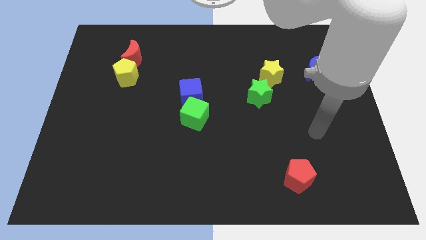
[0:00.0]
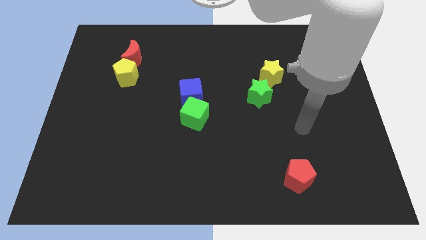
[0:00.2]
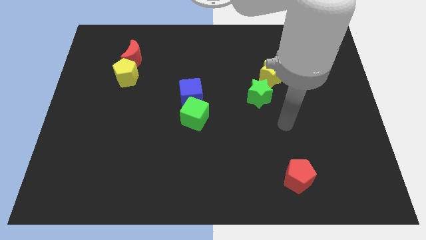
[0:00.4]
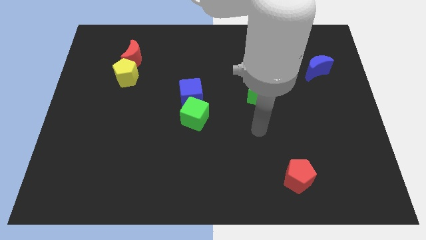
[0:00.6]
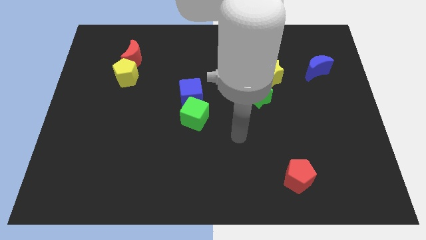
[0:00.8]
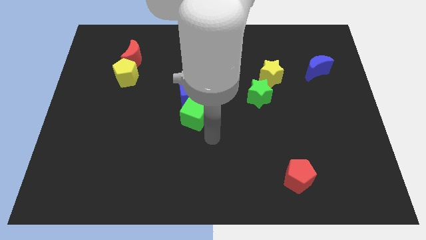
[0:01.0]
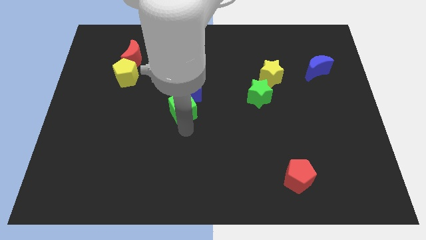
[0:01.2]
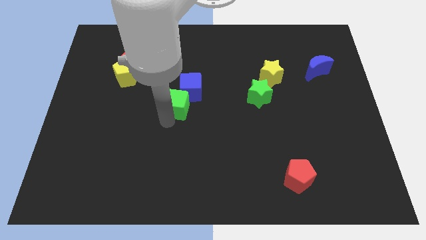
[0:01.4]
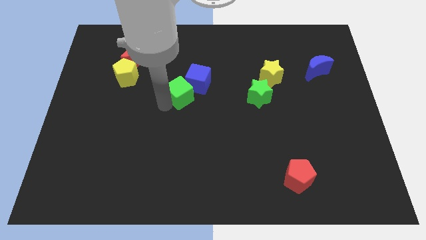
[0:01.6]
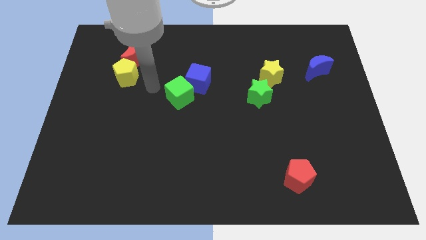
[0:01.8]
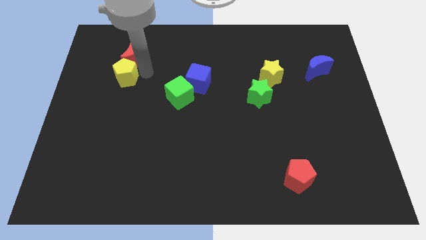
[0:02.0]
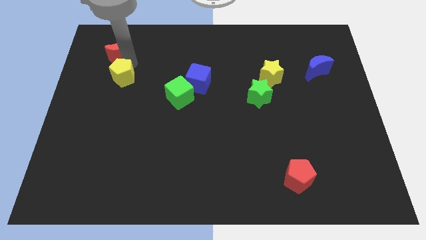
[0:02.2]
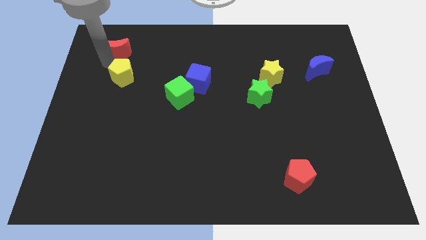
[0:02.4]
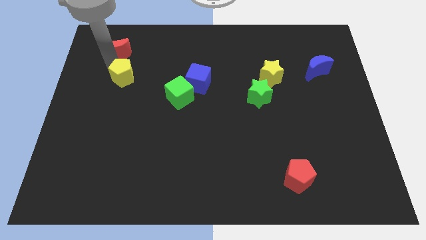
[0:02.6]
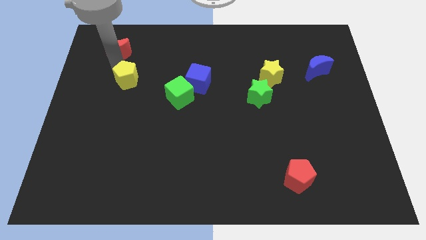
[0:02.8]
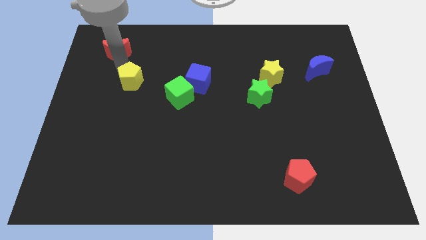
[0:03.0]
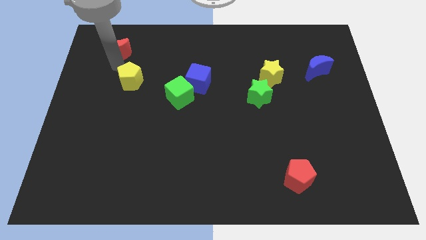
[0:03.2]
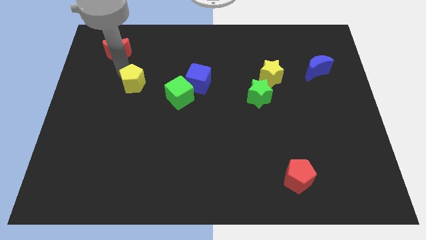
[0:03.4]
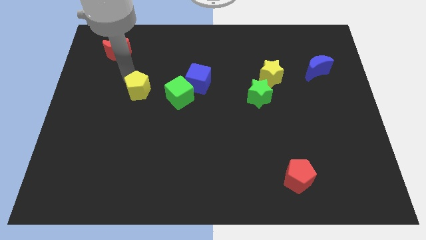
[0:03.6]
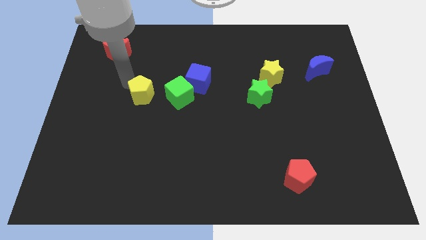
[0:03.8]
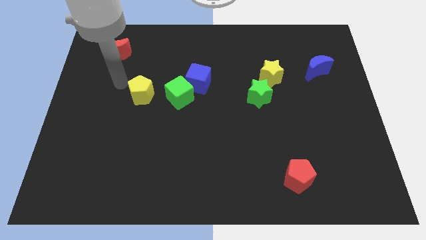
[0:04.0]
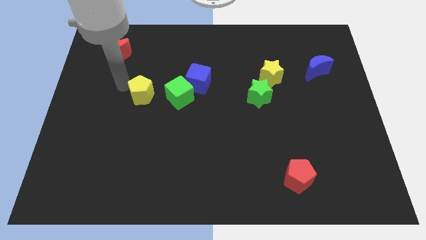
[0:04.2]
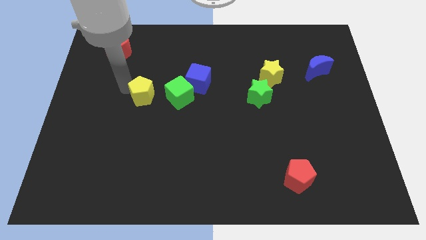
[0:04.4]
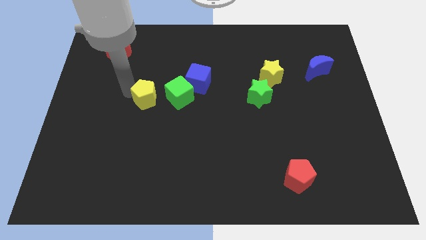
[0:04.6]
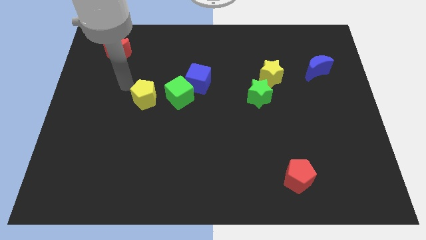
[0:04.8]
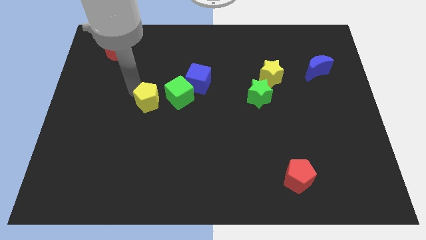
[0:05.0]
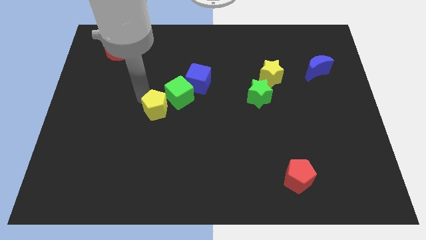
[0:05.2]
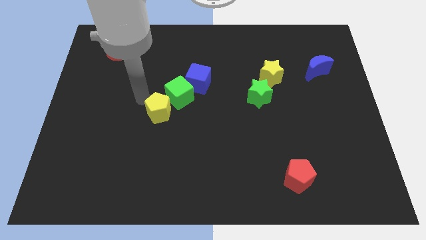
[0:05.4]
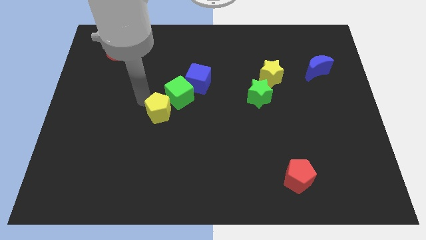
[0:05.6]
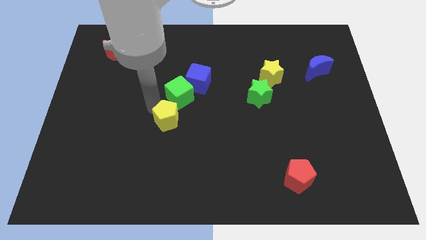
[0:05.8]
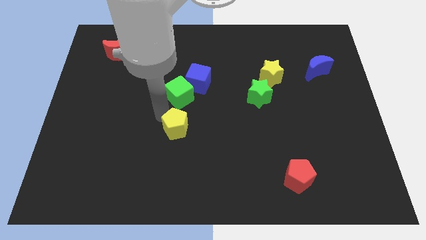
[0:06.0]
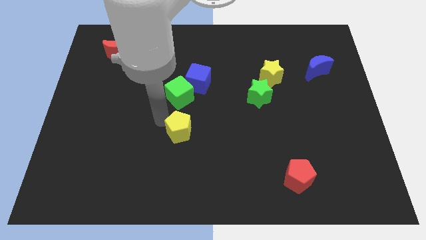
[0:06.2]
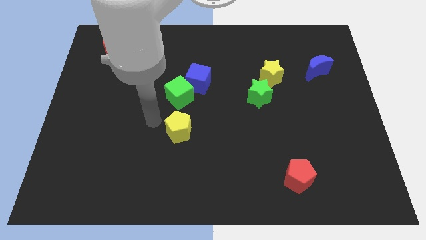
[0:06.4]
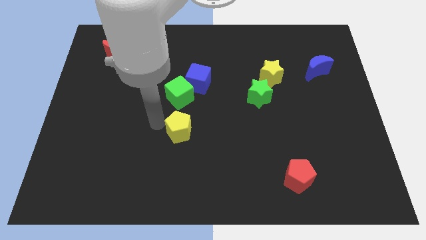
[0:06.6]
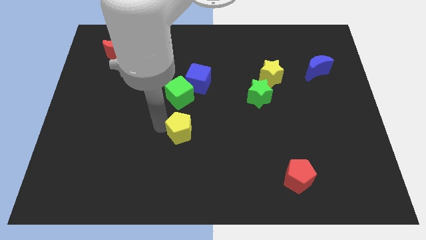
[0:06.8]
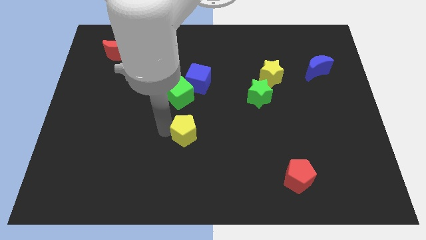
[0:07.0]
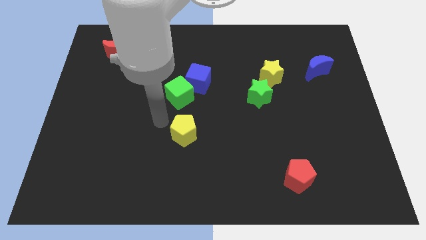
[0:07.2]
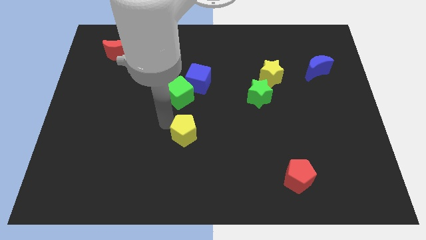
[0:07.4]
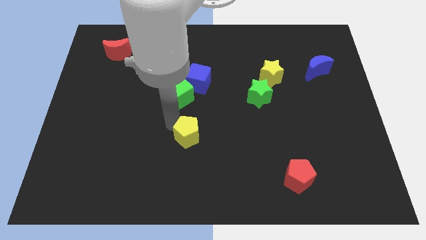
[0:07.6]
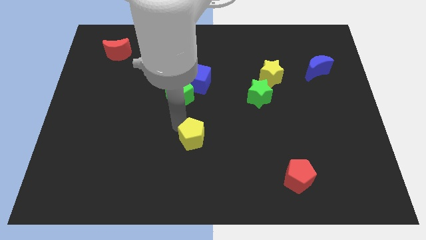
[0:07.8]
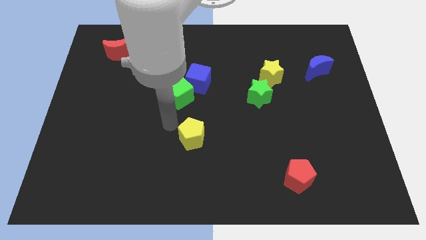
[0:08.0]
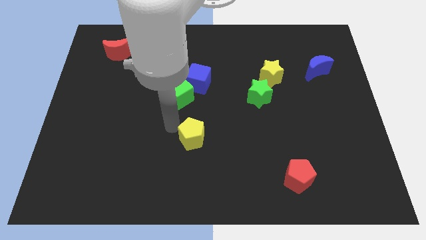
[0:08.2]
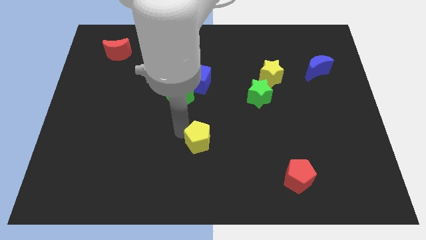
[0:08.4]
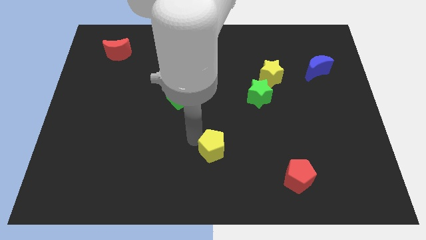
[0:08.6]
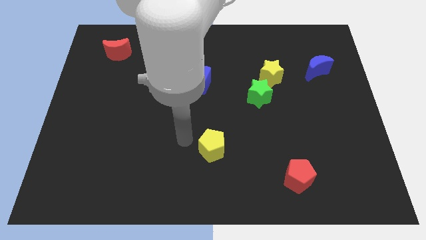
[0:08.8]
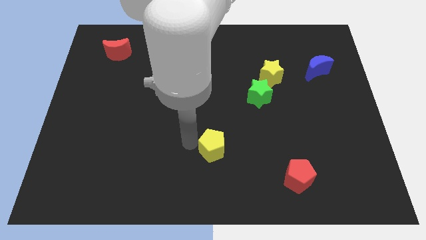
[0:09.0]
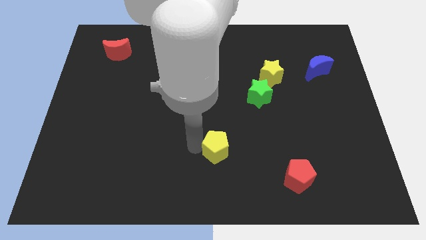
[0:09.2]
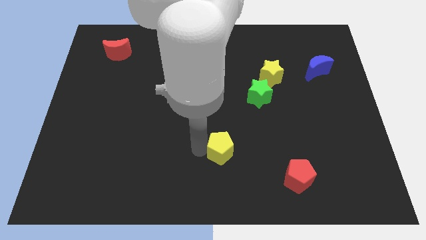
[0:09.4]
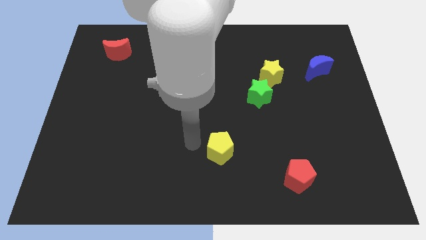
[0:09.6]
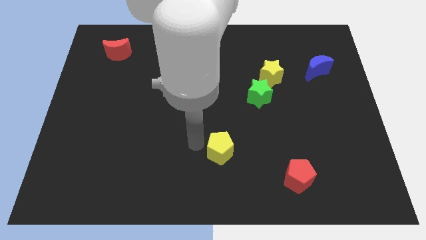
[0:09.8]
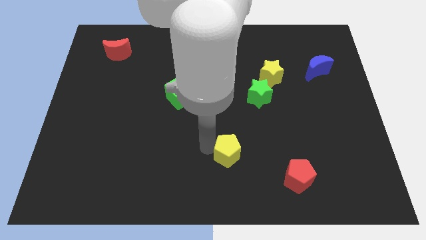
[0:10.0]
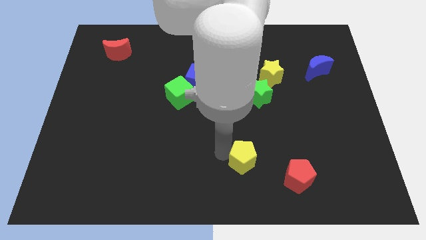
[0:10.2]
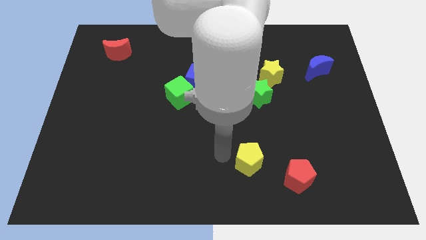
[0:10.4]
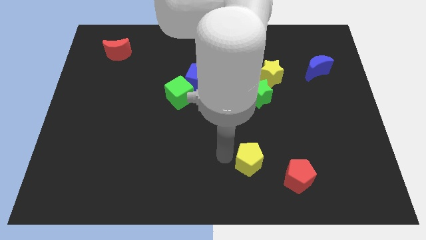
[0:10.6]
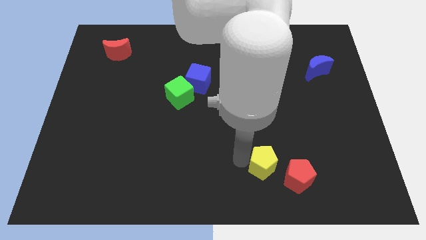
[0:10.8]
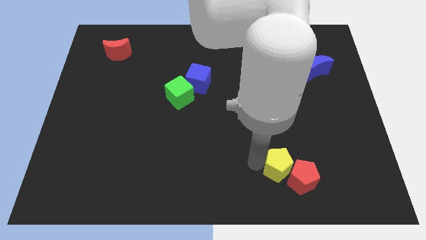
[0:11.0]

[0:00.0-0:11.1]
put the yellow pentagon close to the red pentagon

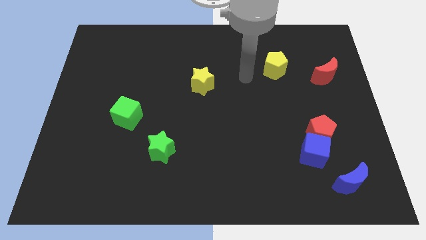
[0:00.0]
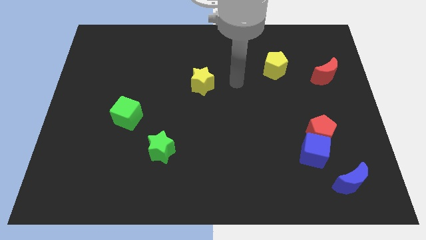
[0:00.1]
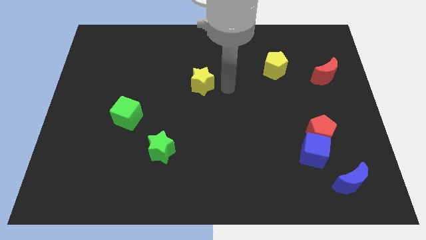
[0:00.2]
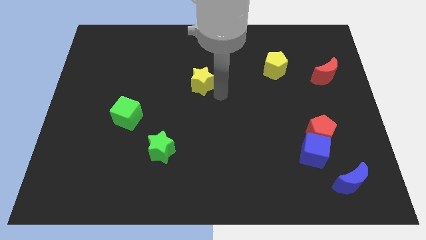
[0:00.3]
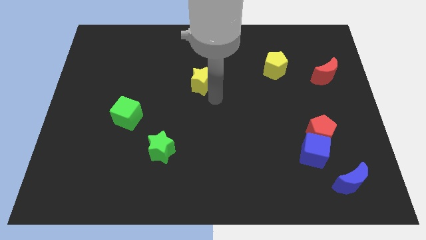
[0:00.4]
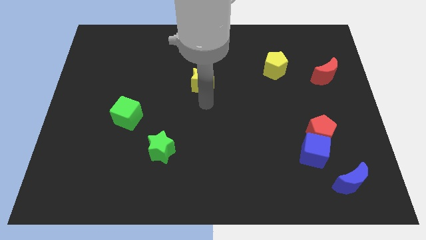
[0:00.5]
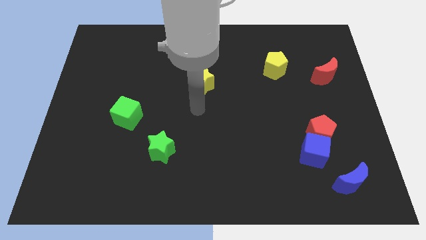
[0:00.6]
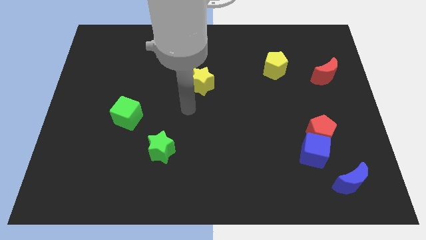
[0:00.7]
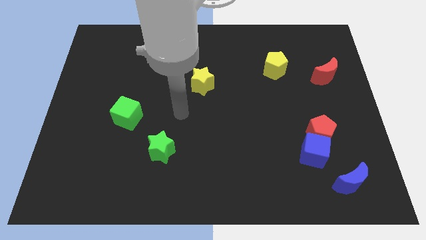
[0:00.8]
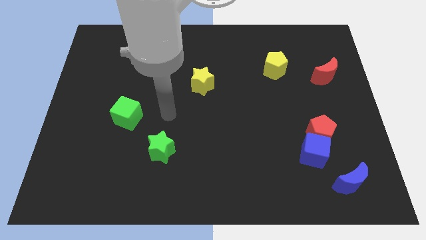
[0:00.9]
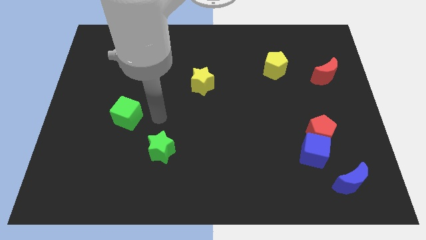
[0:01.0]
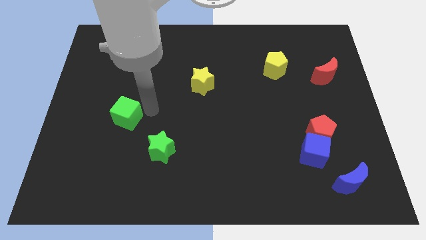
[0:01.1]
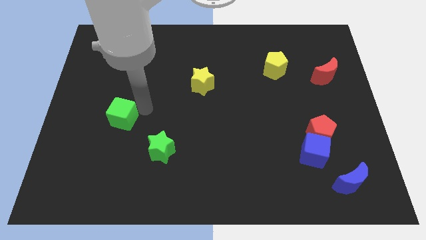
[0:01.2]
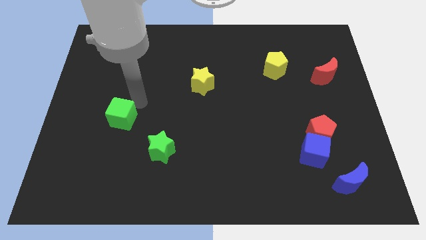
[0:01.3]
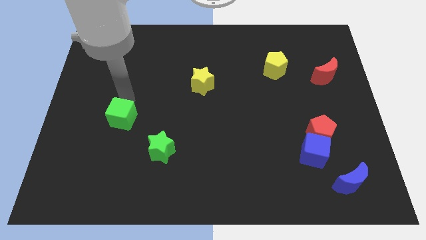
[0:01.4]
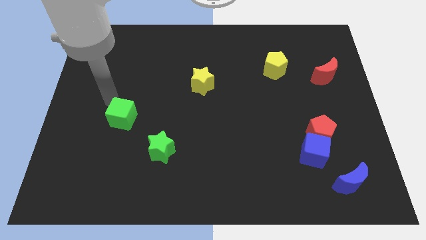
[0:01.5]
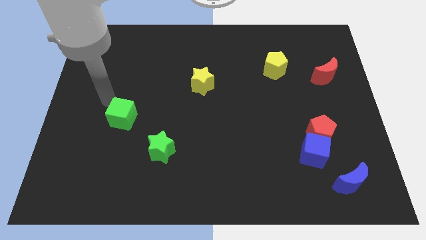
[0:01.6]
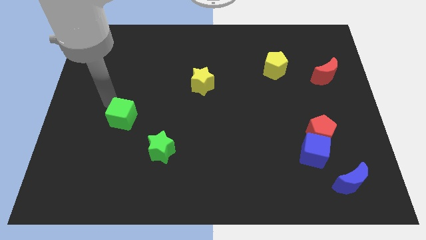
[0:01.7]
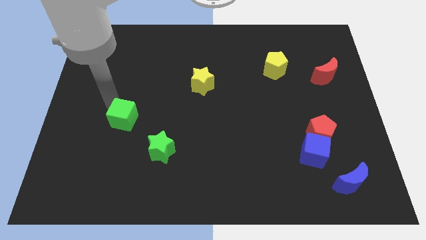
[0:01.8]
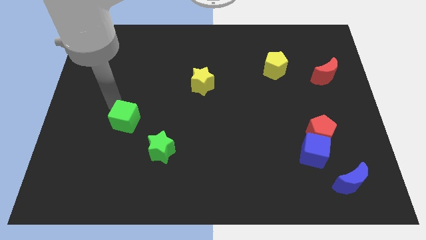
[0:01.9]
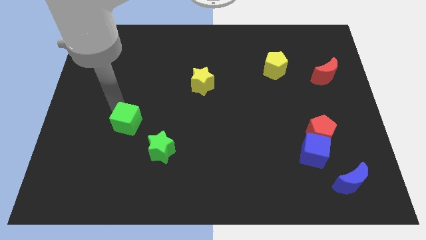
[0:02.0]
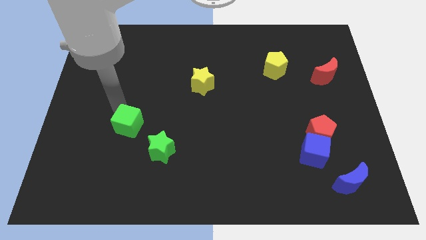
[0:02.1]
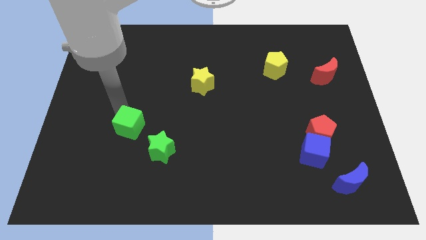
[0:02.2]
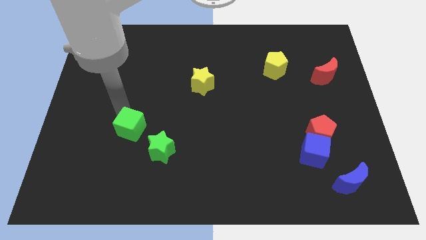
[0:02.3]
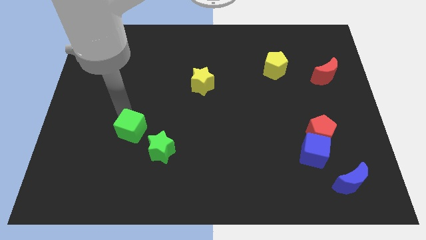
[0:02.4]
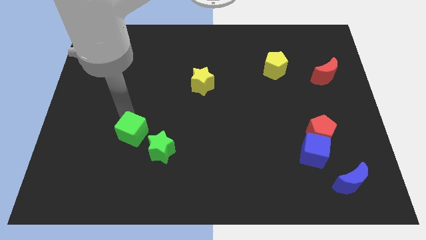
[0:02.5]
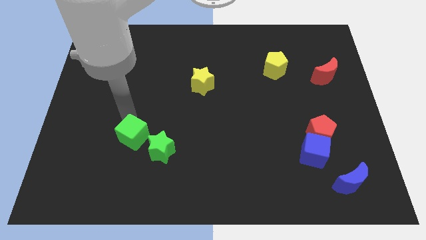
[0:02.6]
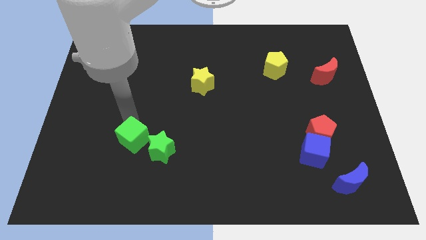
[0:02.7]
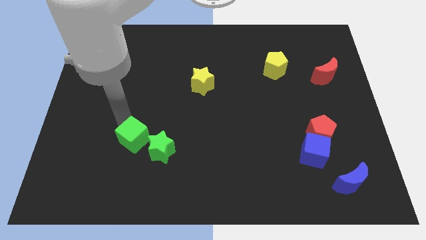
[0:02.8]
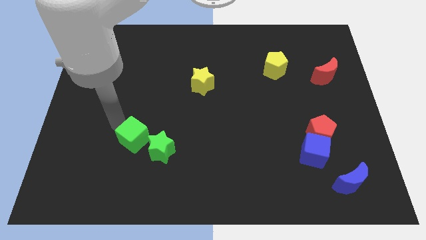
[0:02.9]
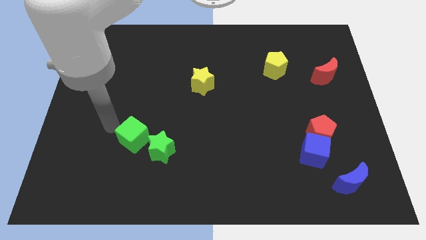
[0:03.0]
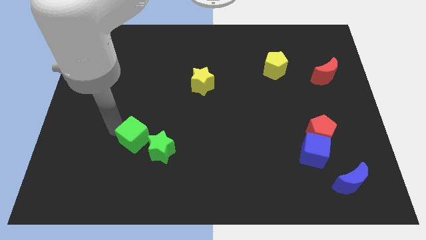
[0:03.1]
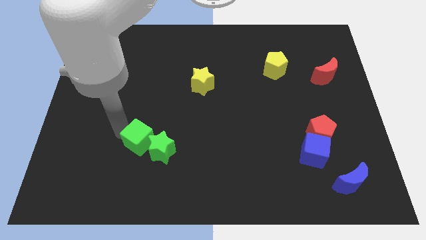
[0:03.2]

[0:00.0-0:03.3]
put the green cube close to the green star
